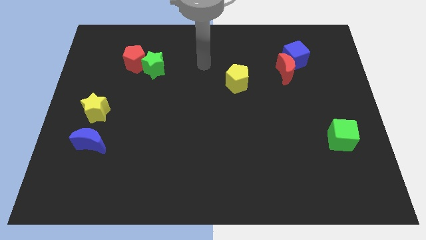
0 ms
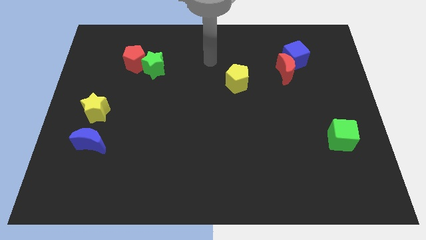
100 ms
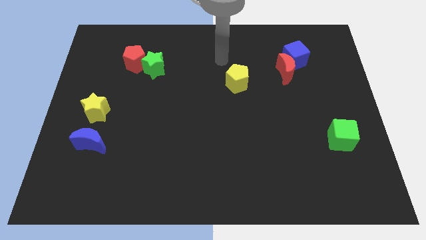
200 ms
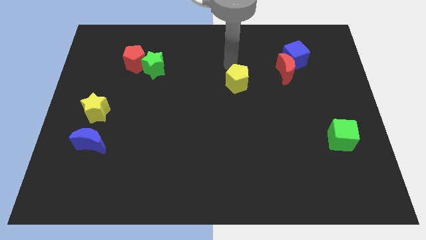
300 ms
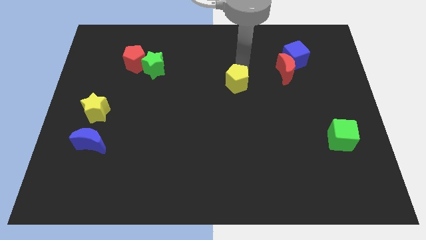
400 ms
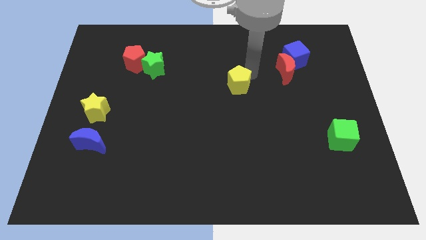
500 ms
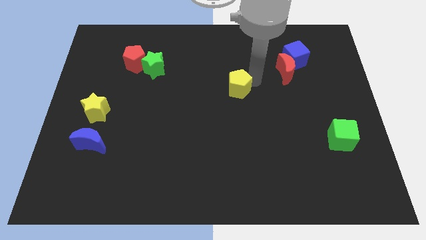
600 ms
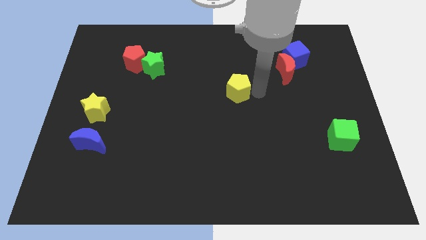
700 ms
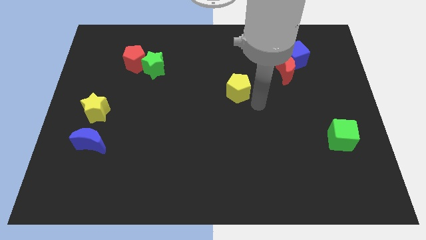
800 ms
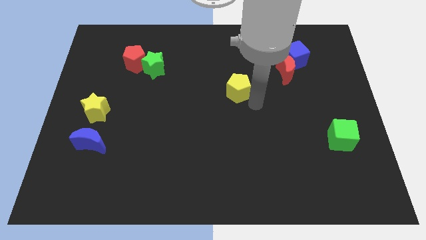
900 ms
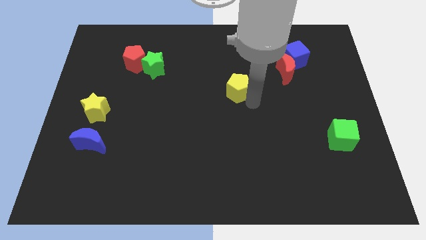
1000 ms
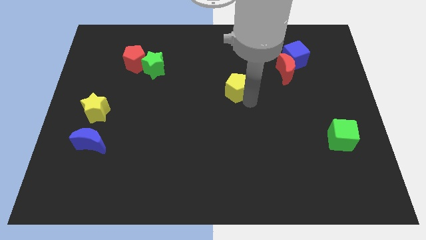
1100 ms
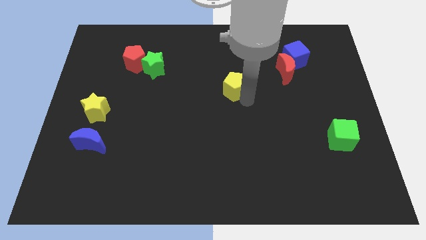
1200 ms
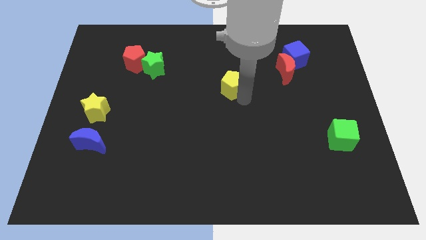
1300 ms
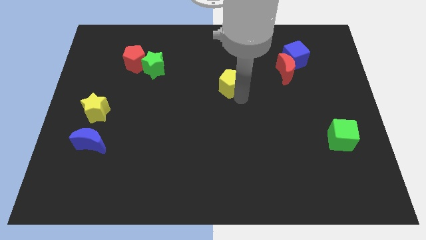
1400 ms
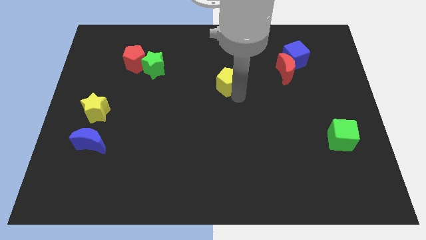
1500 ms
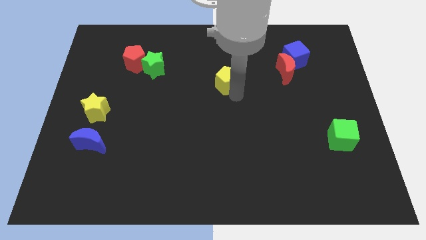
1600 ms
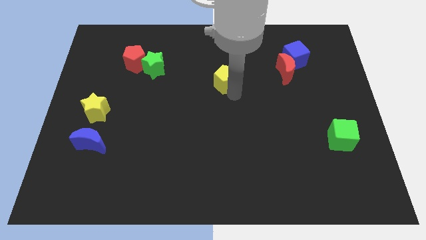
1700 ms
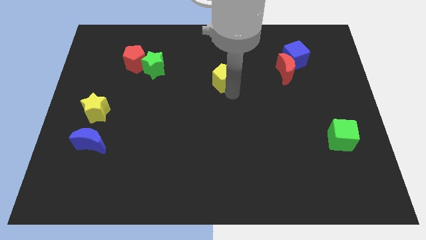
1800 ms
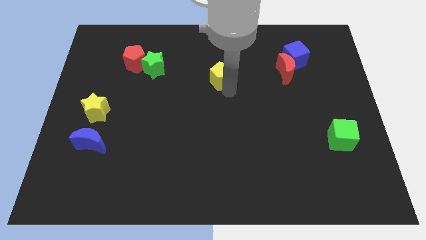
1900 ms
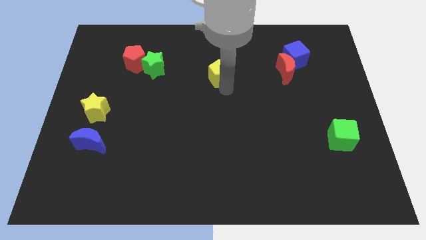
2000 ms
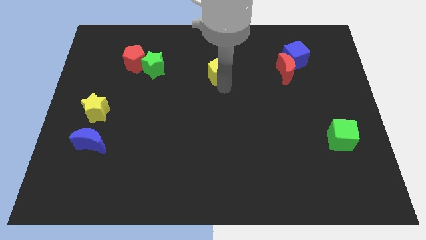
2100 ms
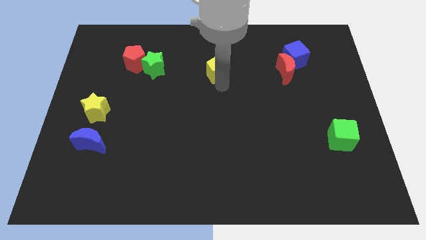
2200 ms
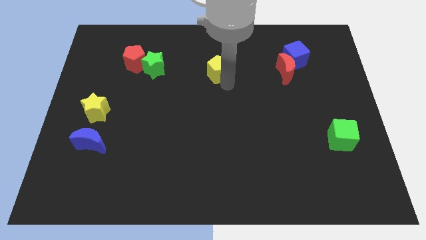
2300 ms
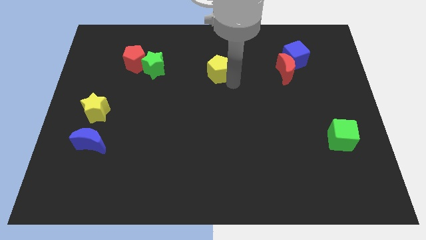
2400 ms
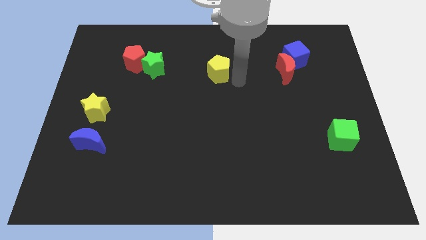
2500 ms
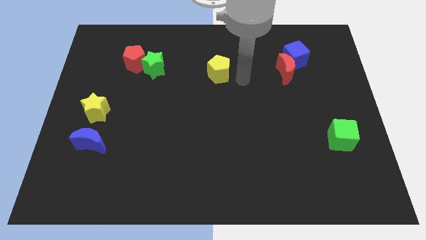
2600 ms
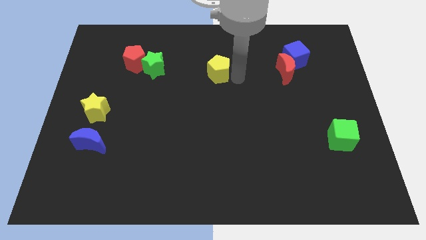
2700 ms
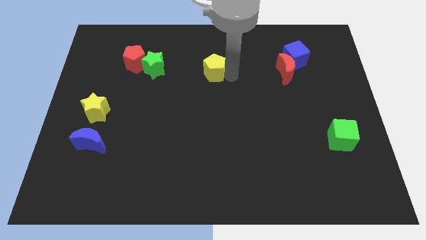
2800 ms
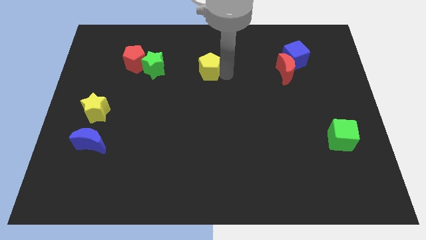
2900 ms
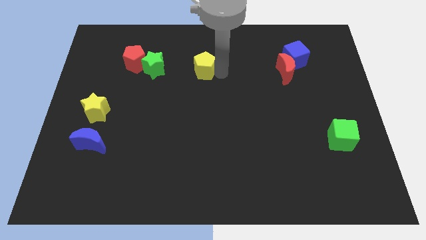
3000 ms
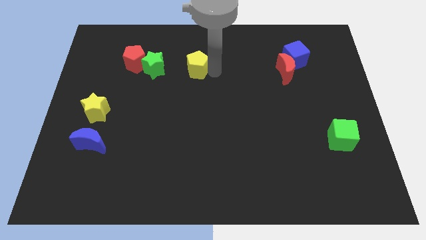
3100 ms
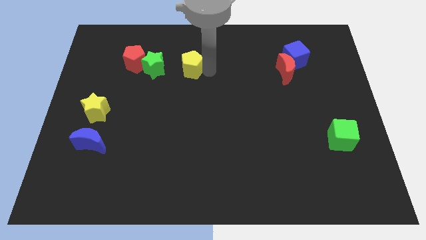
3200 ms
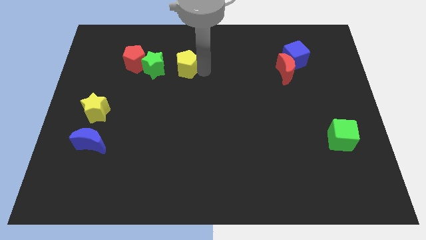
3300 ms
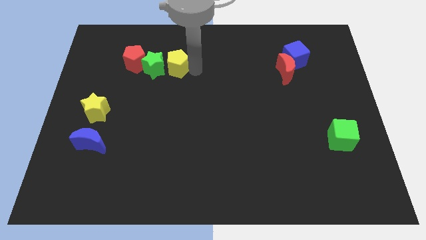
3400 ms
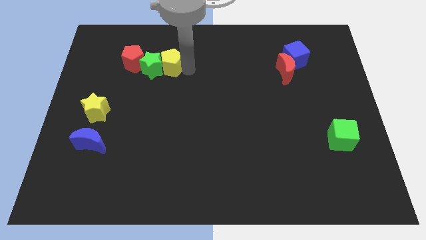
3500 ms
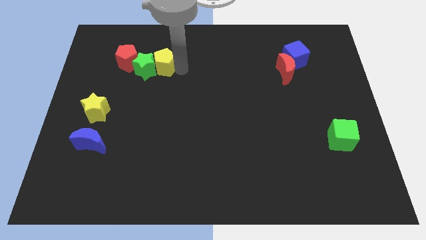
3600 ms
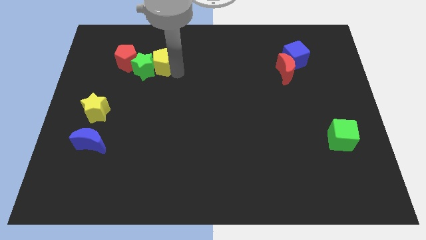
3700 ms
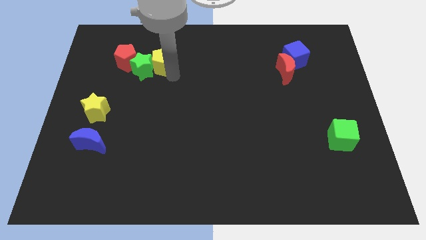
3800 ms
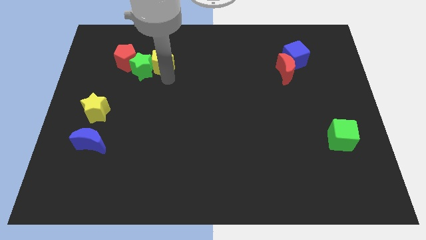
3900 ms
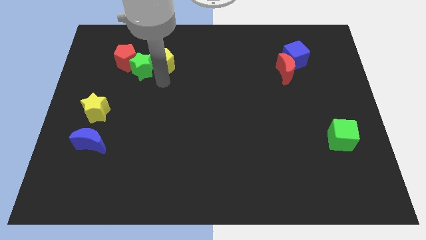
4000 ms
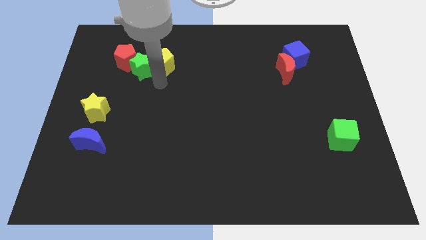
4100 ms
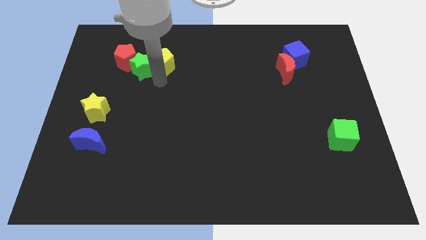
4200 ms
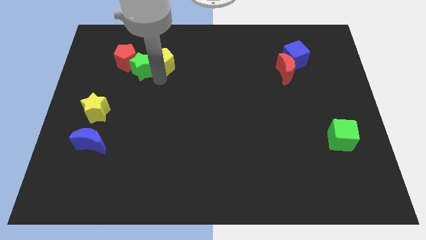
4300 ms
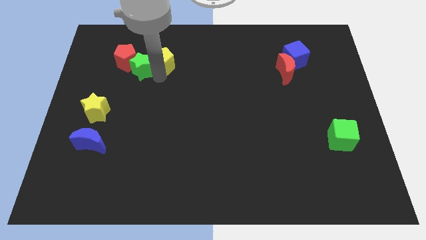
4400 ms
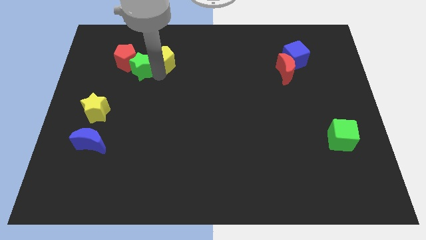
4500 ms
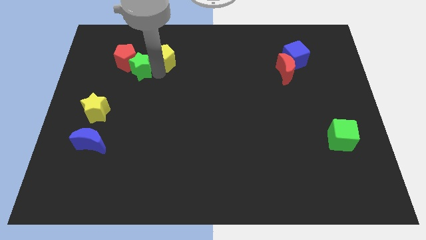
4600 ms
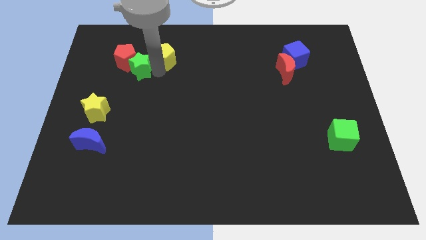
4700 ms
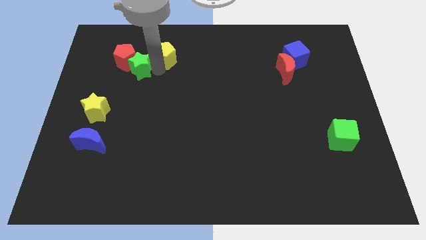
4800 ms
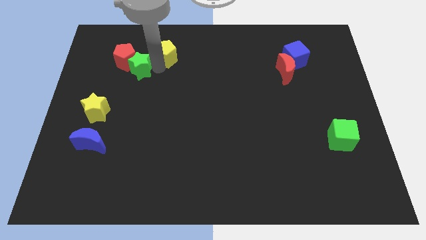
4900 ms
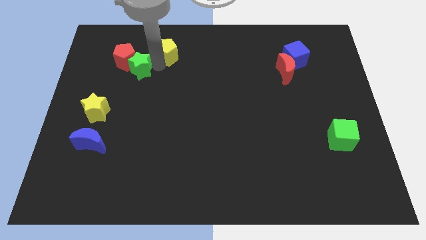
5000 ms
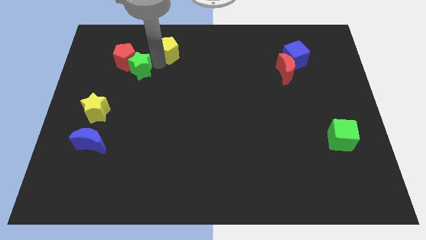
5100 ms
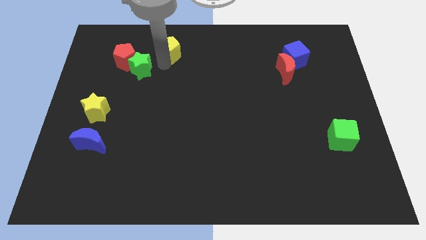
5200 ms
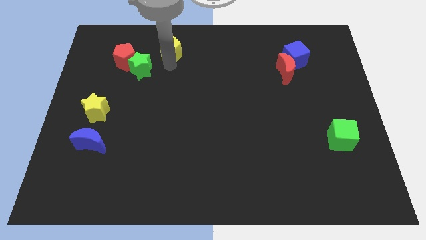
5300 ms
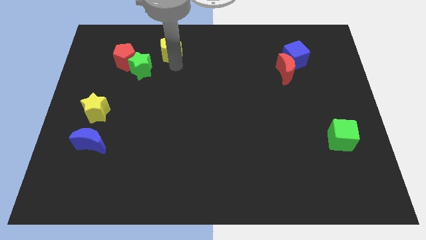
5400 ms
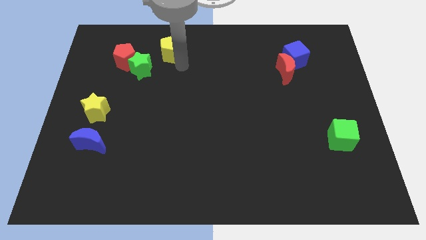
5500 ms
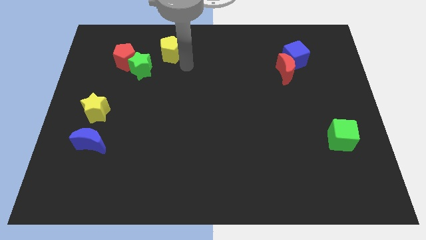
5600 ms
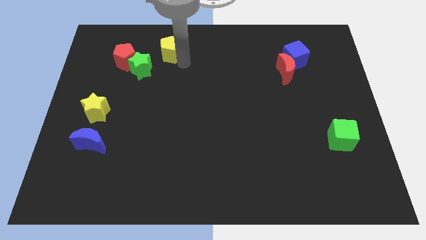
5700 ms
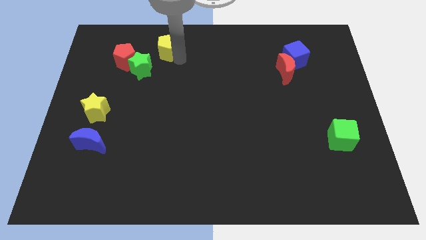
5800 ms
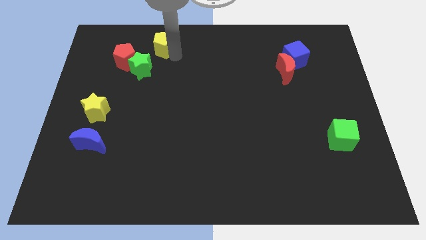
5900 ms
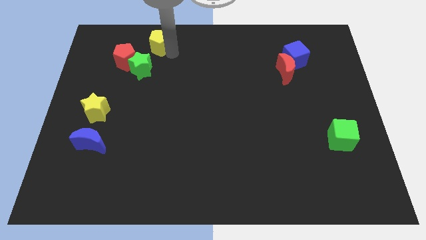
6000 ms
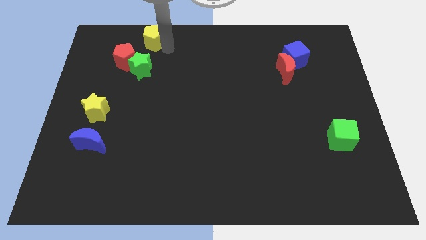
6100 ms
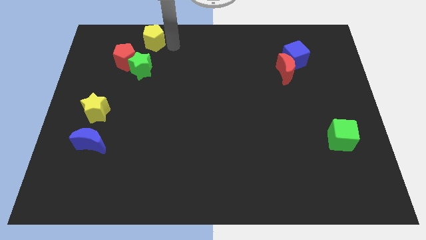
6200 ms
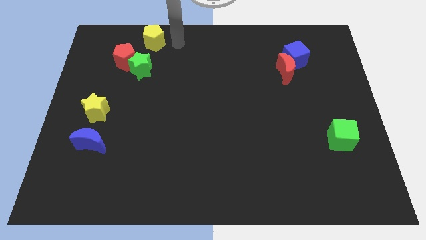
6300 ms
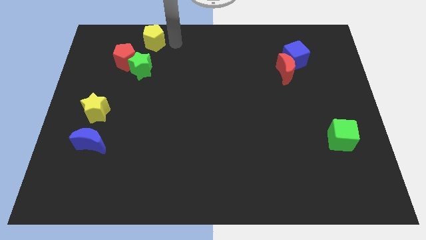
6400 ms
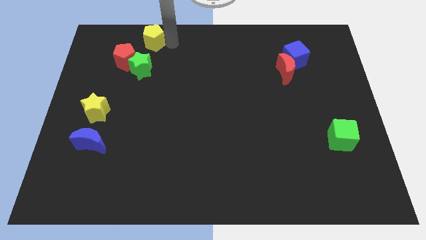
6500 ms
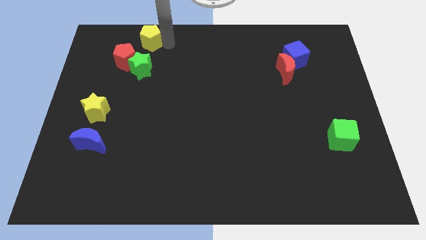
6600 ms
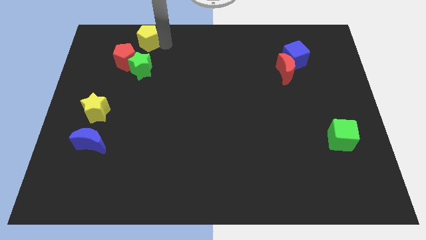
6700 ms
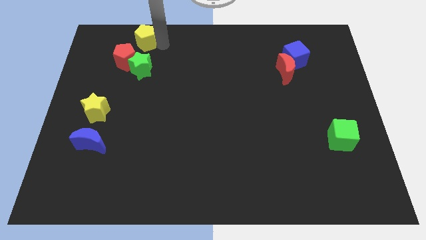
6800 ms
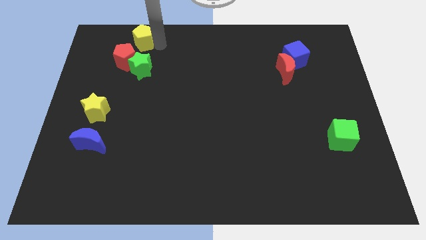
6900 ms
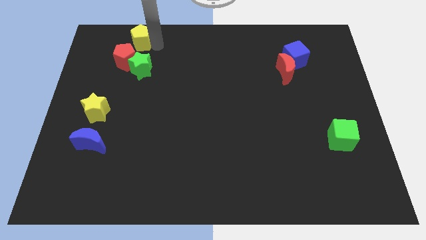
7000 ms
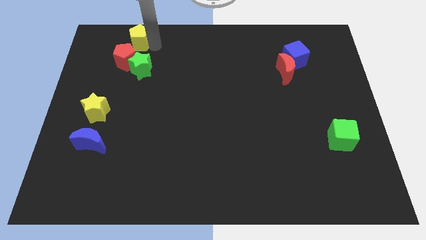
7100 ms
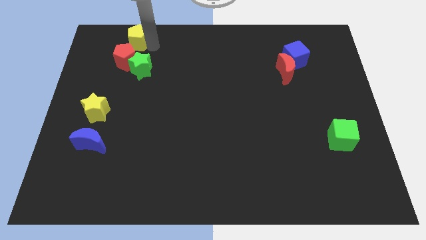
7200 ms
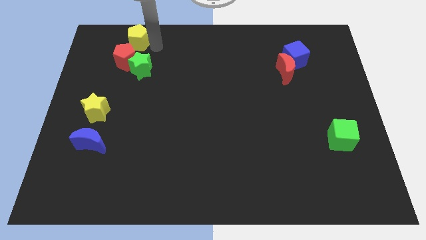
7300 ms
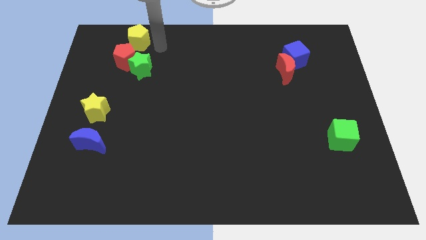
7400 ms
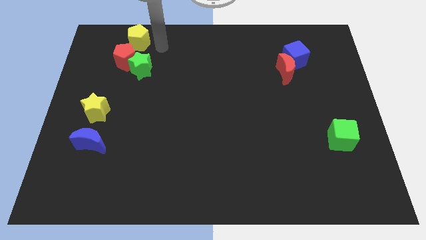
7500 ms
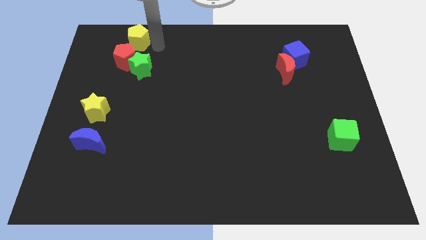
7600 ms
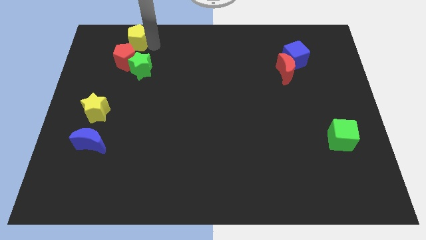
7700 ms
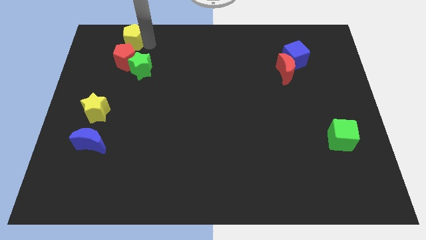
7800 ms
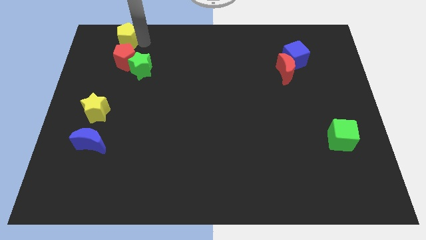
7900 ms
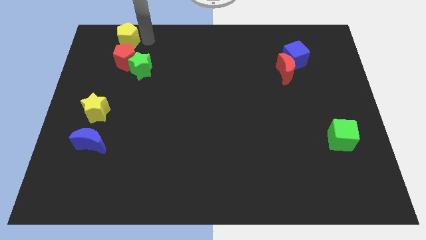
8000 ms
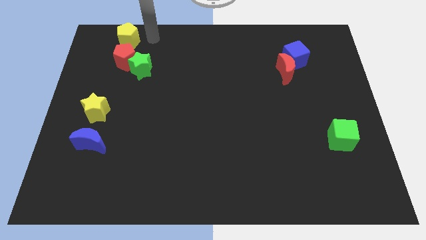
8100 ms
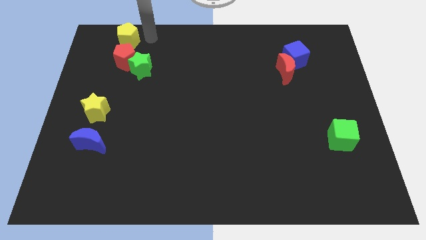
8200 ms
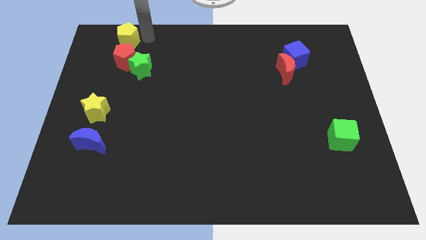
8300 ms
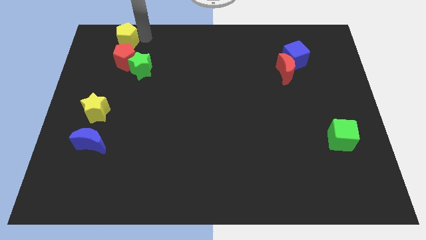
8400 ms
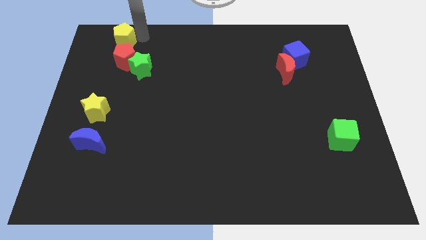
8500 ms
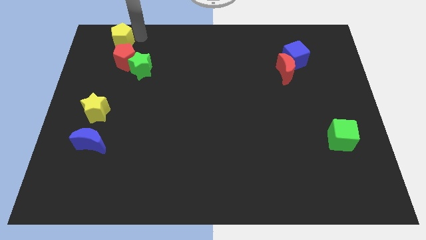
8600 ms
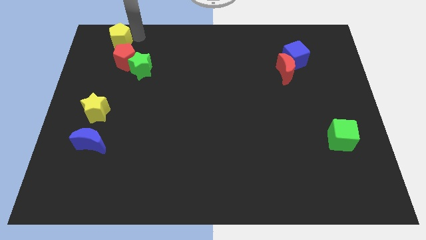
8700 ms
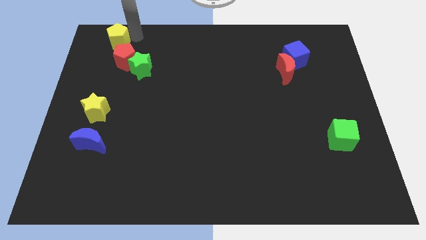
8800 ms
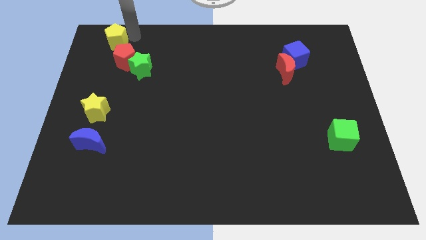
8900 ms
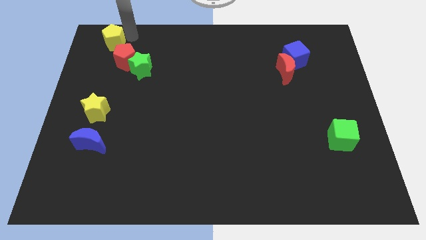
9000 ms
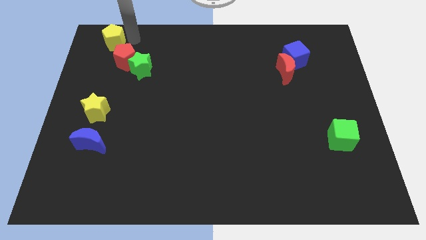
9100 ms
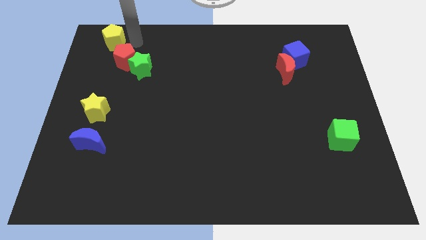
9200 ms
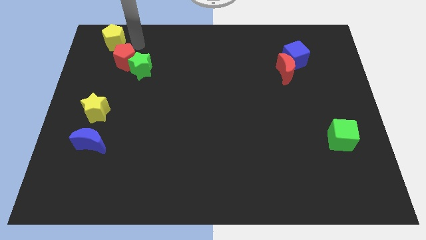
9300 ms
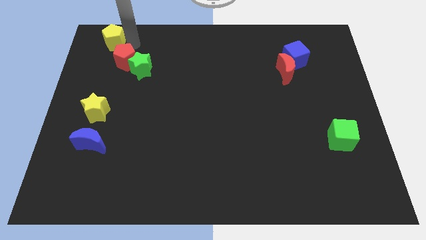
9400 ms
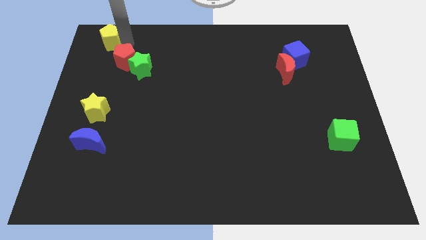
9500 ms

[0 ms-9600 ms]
put the yellow pentagon to the upper left corner
